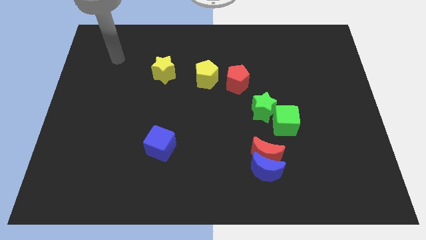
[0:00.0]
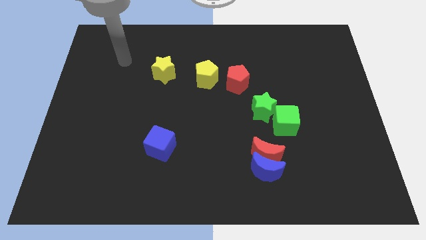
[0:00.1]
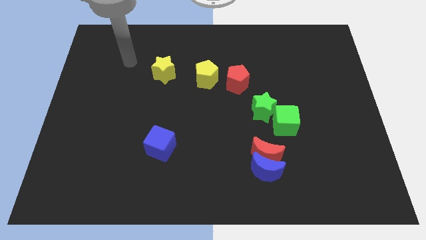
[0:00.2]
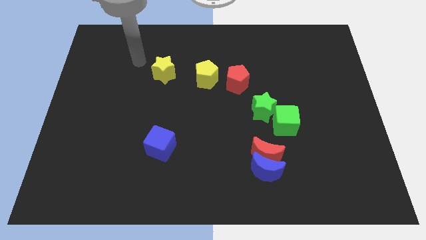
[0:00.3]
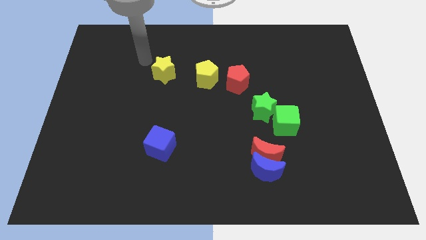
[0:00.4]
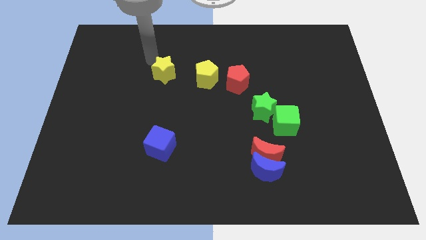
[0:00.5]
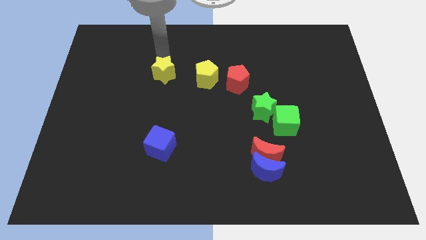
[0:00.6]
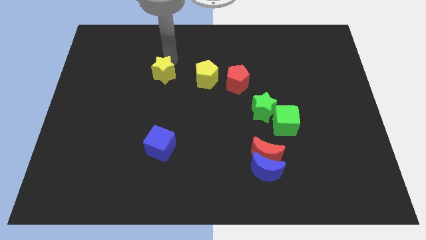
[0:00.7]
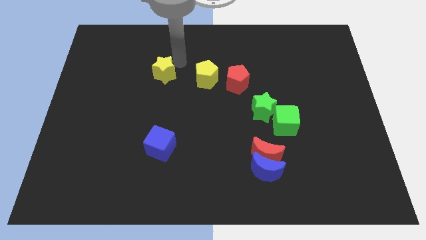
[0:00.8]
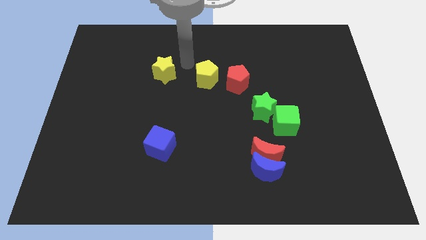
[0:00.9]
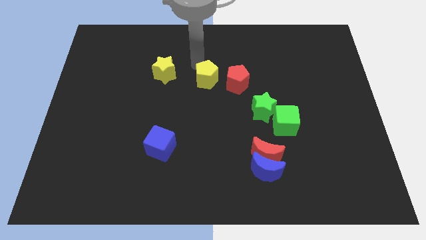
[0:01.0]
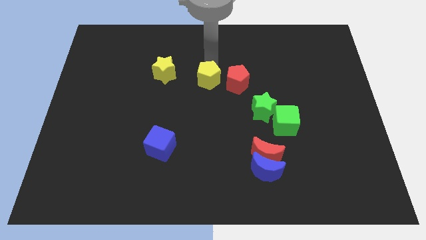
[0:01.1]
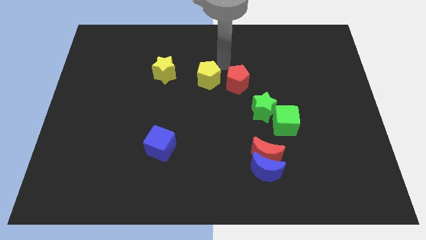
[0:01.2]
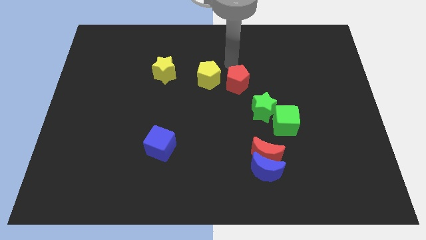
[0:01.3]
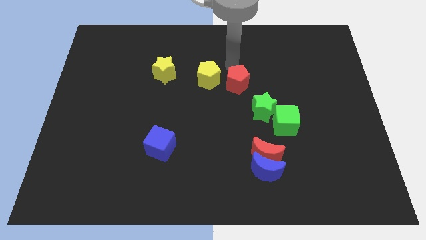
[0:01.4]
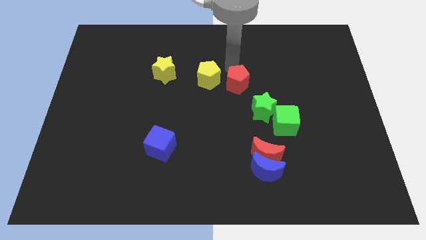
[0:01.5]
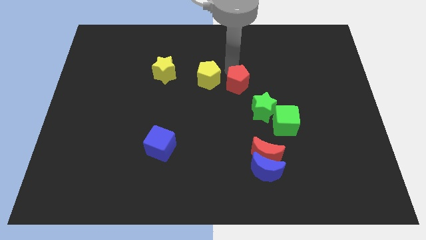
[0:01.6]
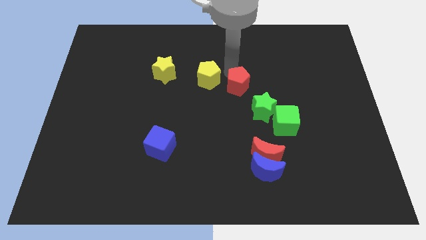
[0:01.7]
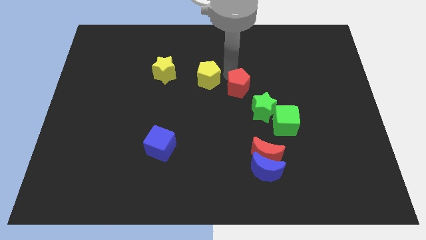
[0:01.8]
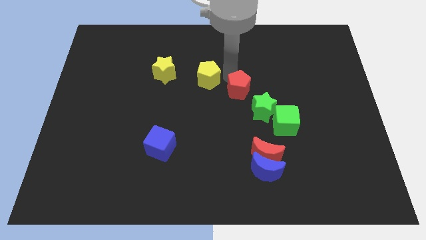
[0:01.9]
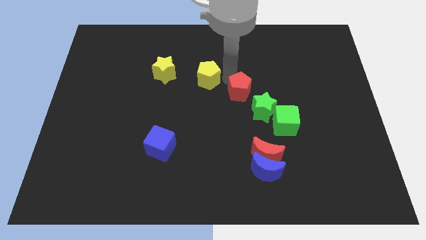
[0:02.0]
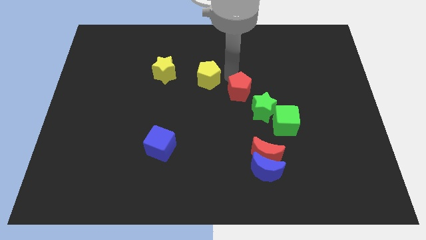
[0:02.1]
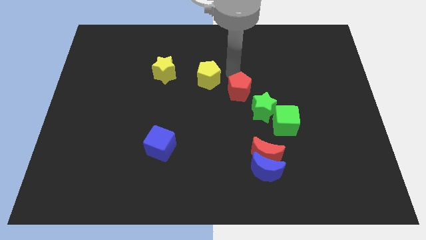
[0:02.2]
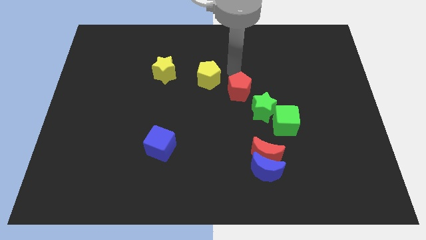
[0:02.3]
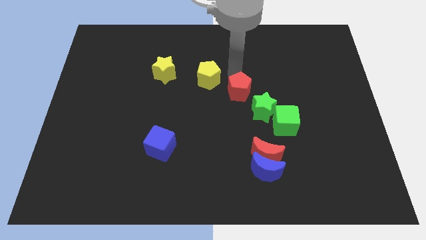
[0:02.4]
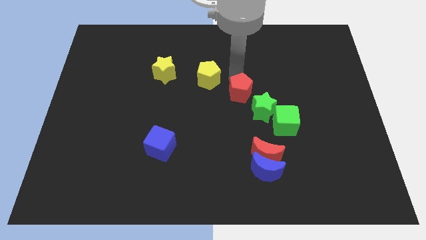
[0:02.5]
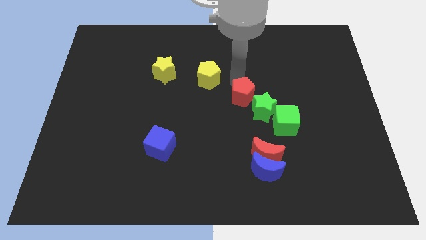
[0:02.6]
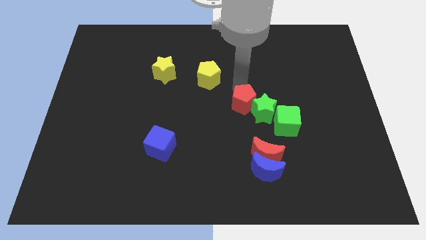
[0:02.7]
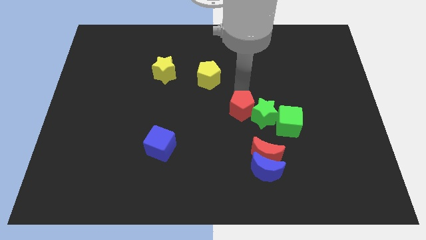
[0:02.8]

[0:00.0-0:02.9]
push the red pentagon down somewhat

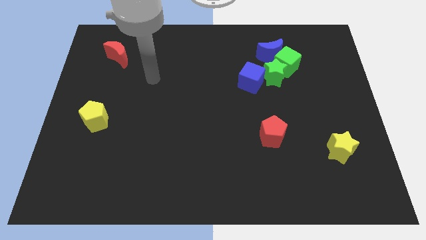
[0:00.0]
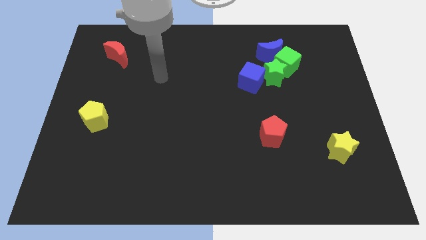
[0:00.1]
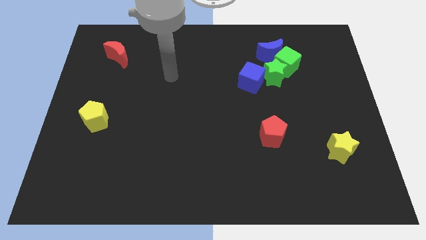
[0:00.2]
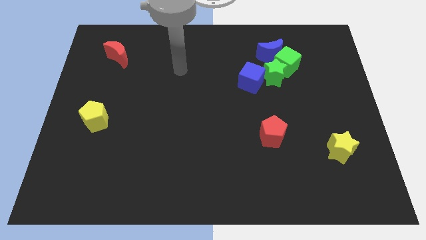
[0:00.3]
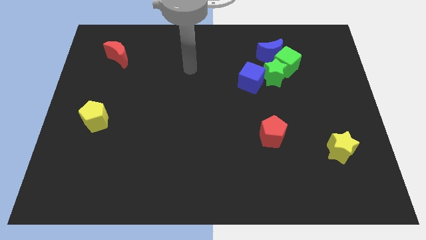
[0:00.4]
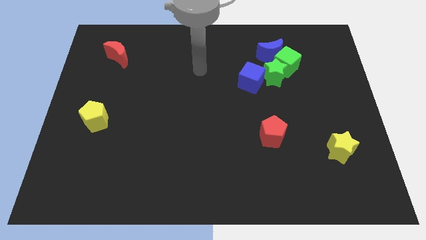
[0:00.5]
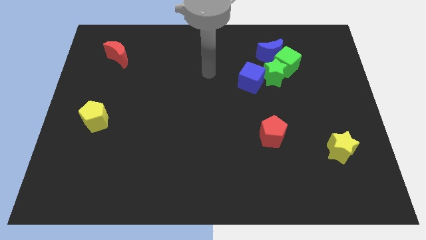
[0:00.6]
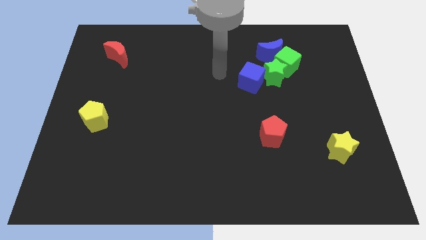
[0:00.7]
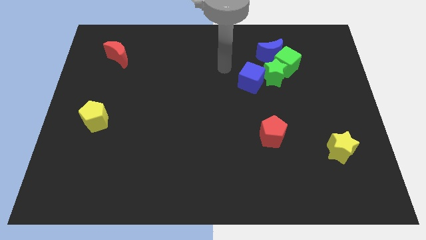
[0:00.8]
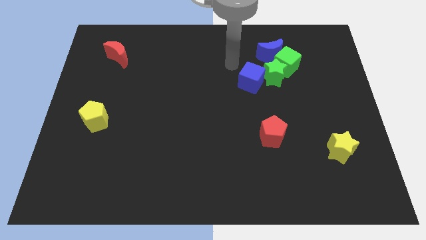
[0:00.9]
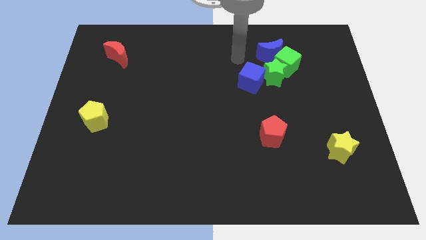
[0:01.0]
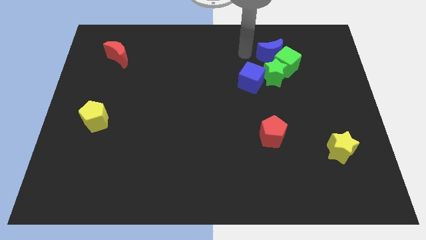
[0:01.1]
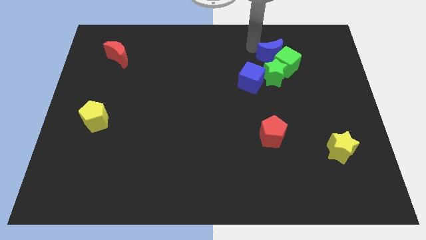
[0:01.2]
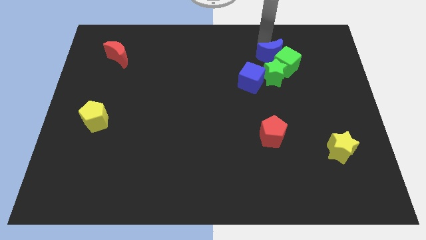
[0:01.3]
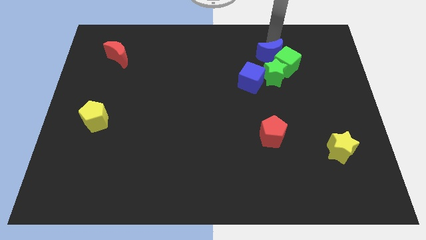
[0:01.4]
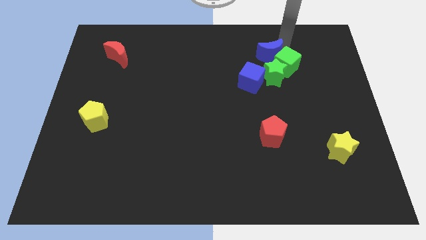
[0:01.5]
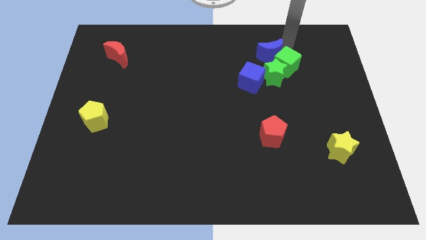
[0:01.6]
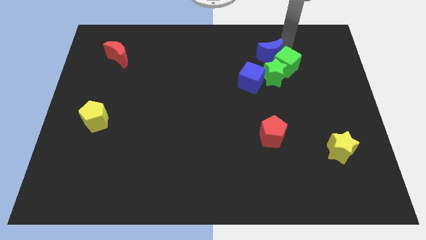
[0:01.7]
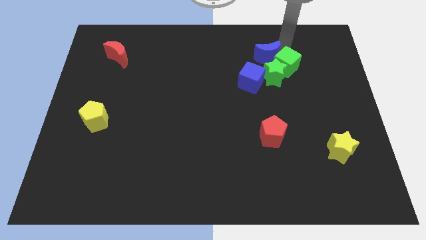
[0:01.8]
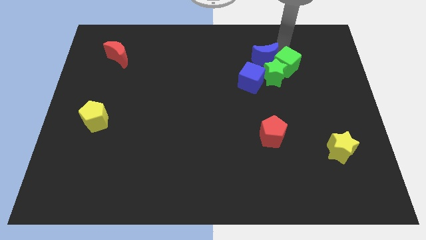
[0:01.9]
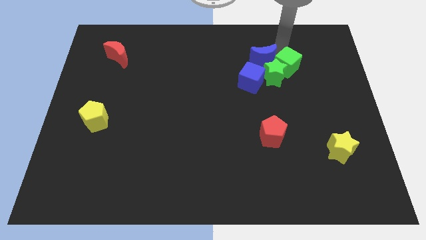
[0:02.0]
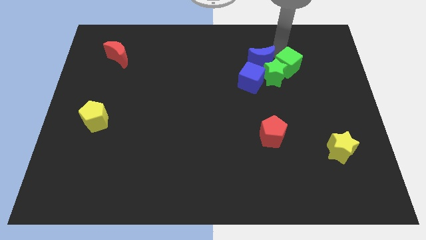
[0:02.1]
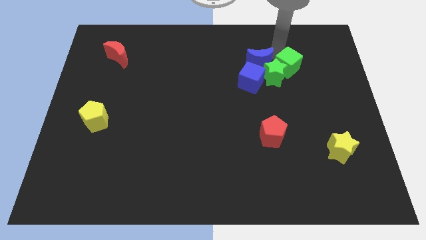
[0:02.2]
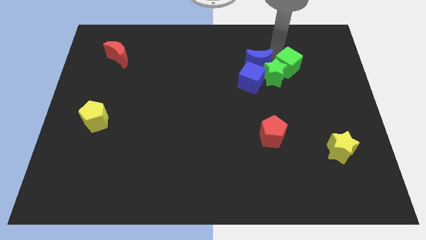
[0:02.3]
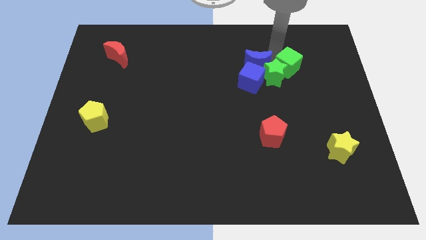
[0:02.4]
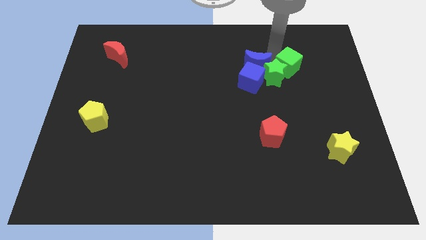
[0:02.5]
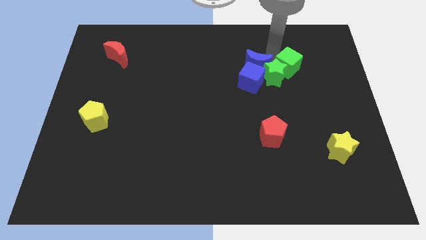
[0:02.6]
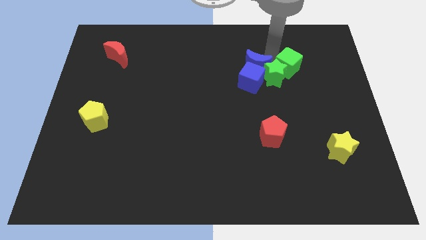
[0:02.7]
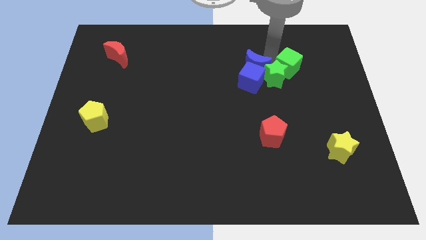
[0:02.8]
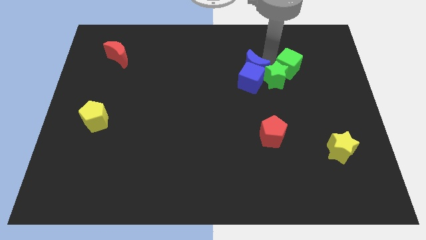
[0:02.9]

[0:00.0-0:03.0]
push the blue moon downwards and then to the left slightly

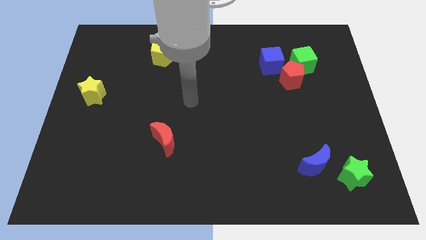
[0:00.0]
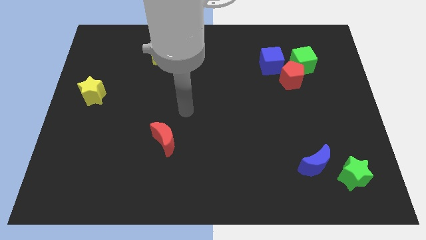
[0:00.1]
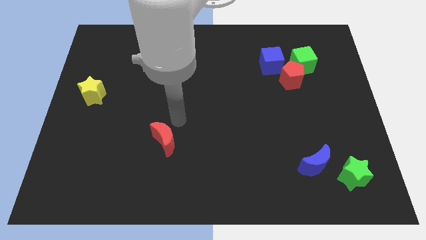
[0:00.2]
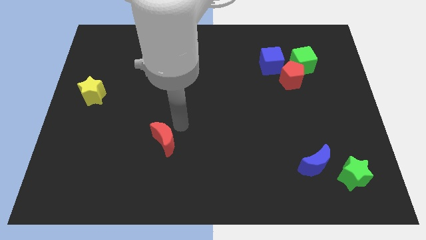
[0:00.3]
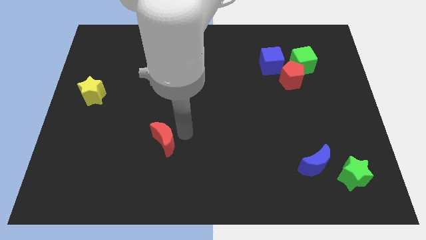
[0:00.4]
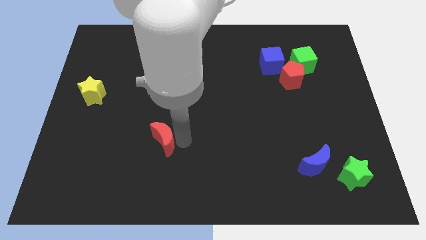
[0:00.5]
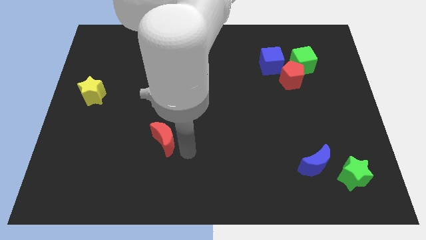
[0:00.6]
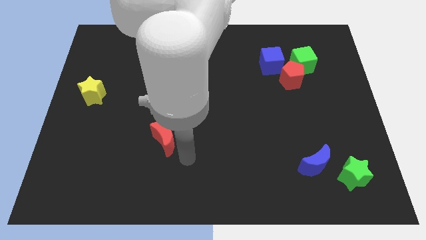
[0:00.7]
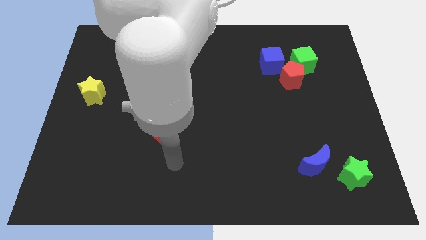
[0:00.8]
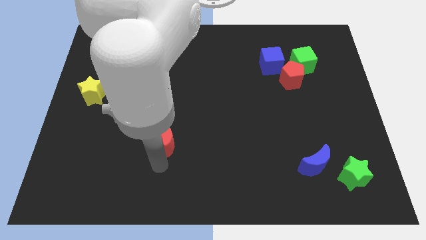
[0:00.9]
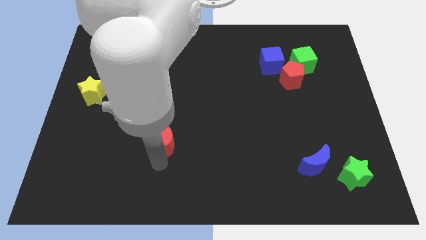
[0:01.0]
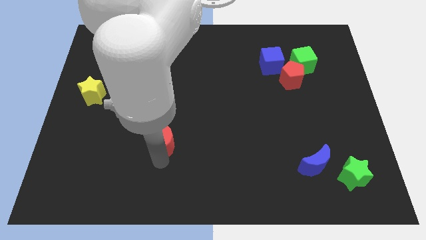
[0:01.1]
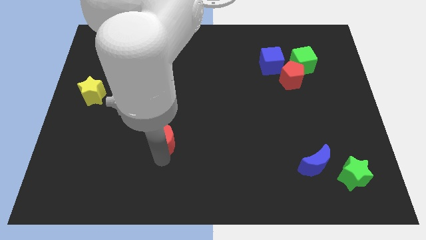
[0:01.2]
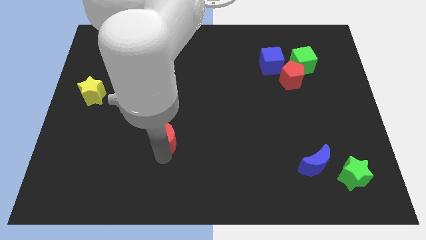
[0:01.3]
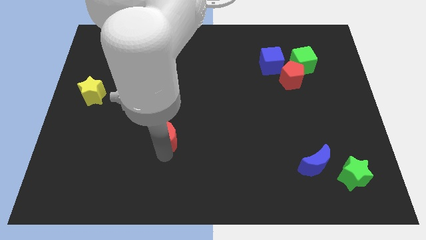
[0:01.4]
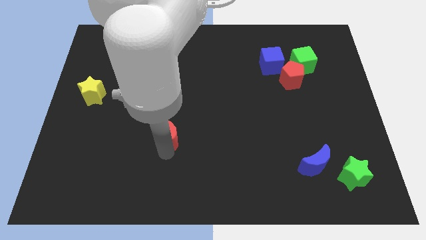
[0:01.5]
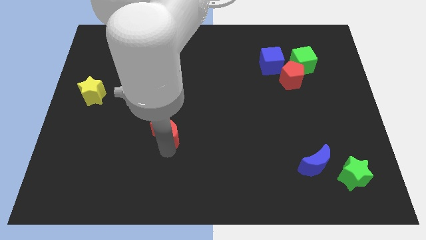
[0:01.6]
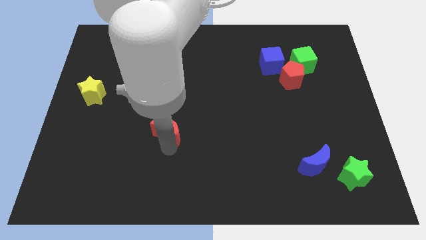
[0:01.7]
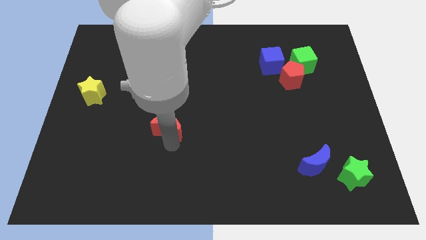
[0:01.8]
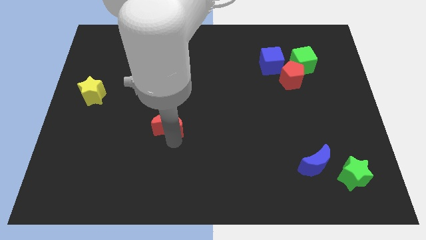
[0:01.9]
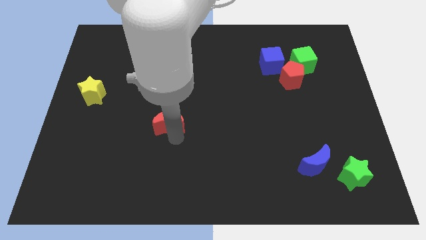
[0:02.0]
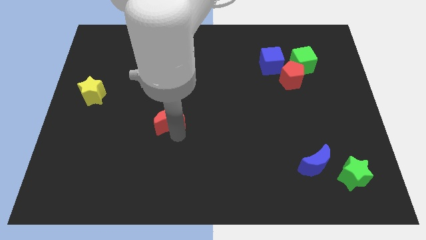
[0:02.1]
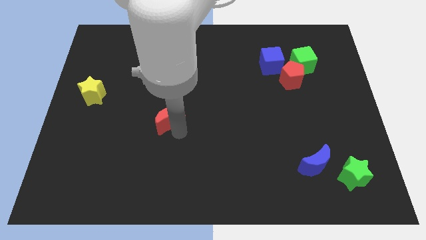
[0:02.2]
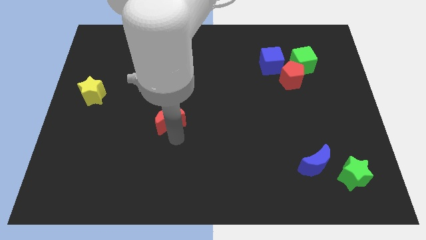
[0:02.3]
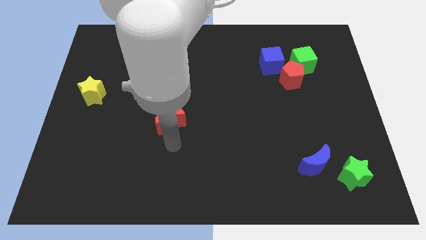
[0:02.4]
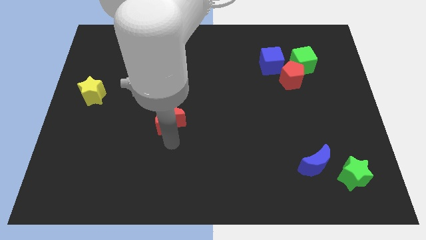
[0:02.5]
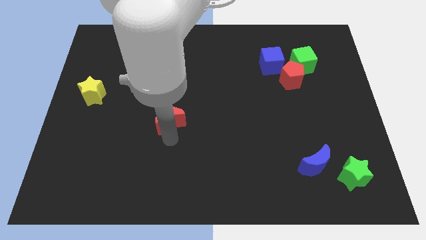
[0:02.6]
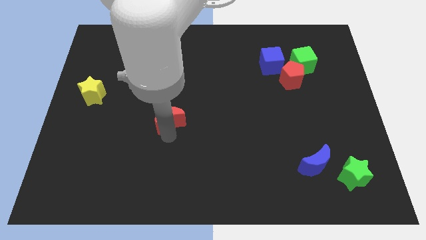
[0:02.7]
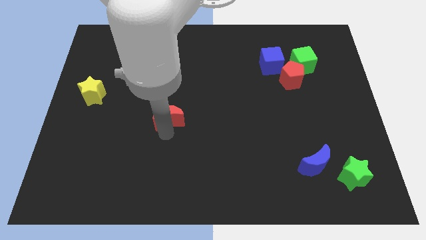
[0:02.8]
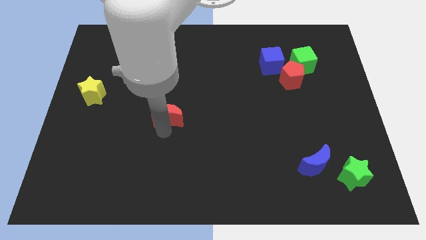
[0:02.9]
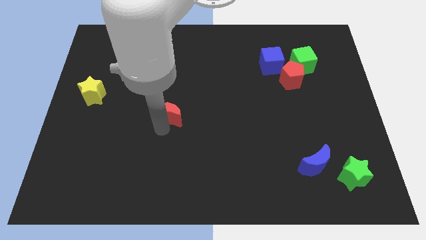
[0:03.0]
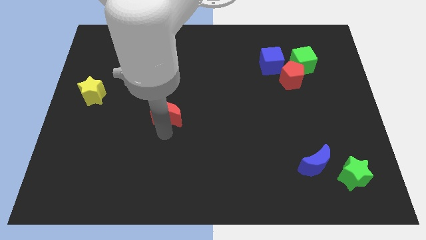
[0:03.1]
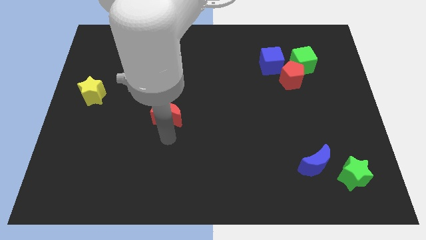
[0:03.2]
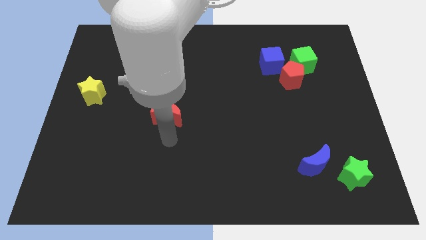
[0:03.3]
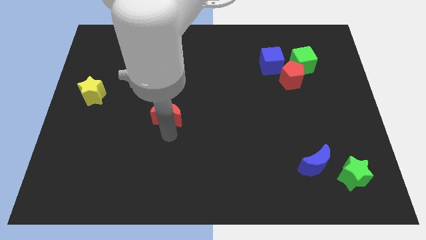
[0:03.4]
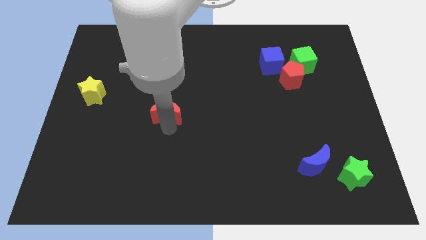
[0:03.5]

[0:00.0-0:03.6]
slightly push the red moon up
